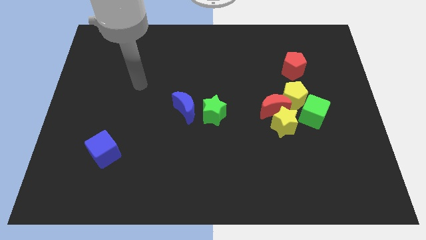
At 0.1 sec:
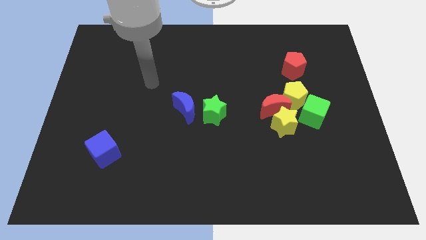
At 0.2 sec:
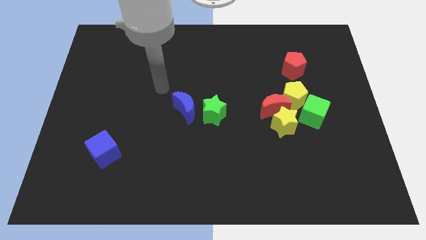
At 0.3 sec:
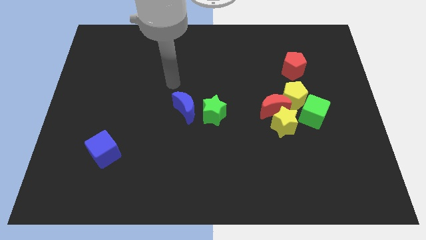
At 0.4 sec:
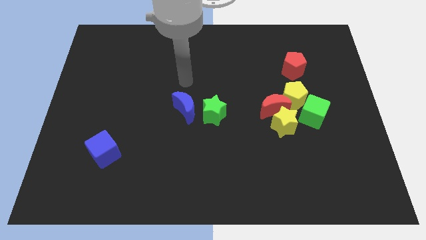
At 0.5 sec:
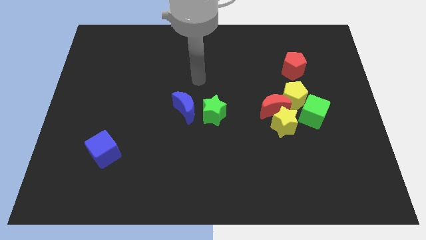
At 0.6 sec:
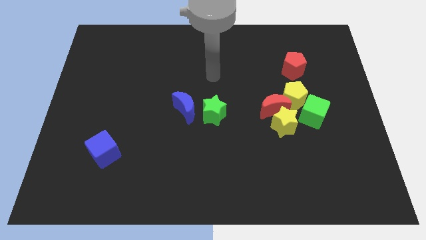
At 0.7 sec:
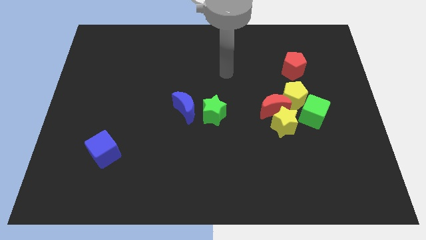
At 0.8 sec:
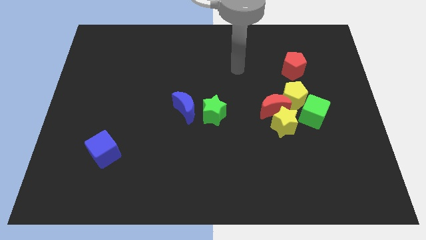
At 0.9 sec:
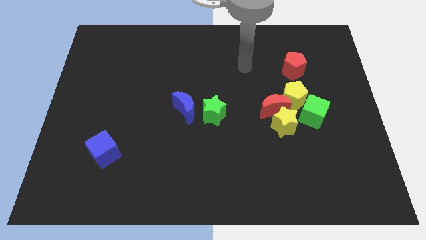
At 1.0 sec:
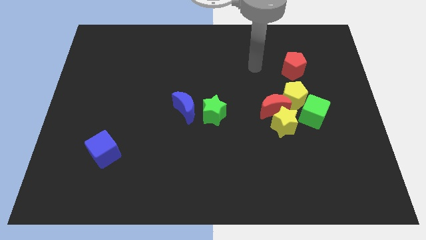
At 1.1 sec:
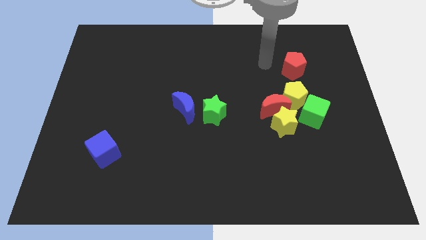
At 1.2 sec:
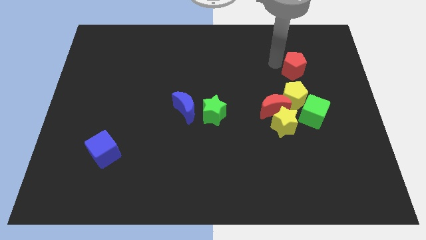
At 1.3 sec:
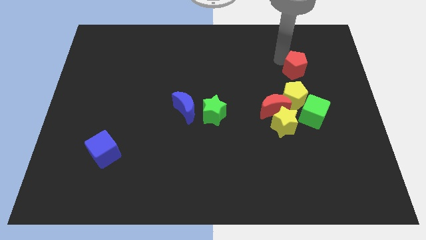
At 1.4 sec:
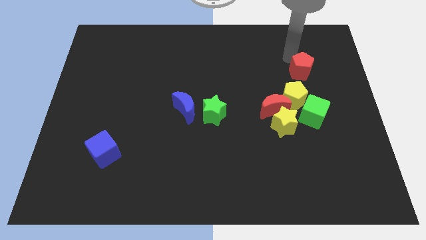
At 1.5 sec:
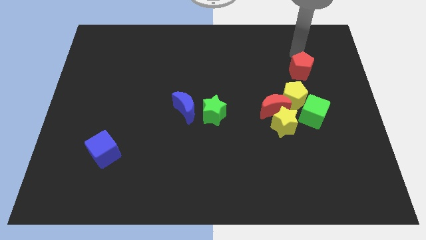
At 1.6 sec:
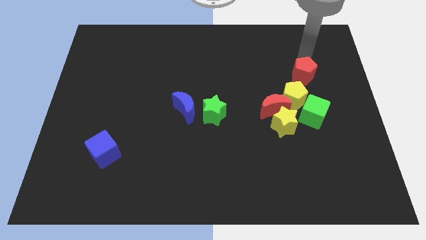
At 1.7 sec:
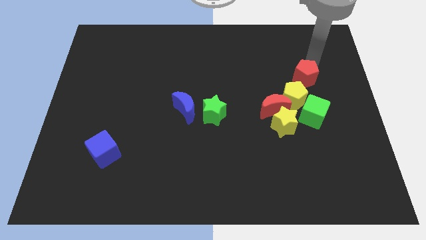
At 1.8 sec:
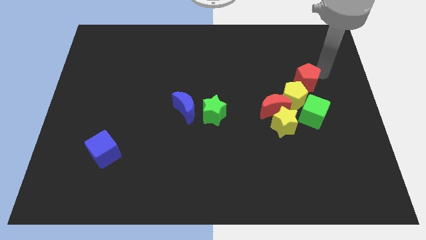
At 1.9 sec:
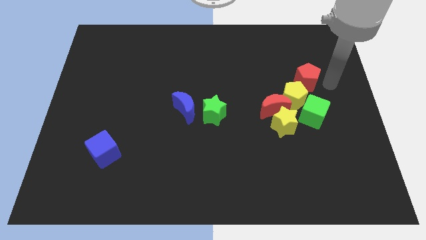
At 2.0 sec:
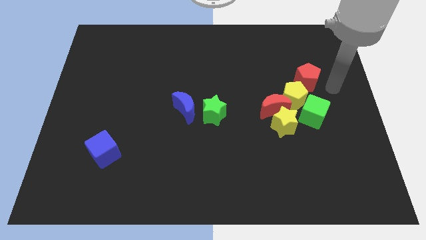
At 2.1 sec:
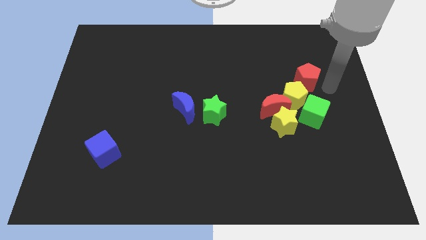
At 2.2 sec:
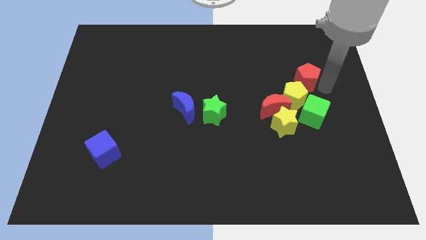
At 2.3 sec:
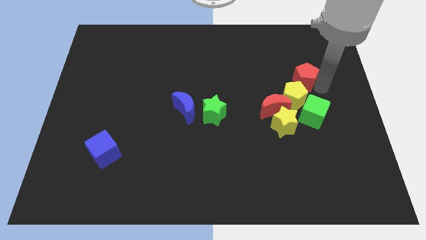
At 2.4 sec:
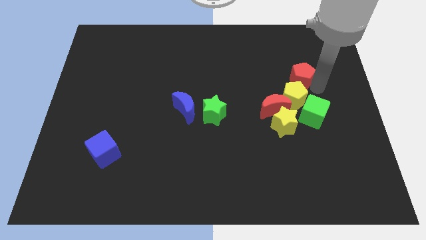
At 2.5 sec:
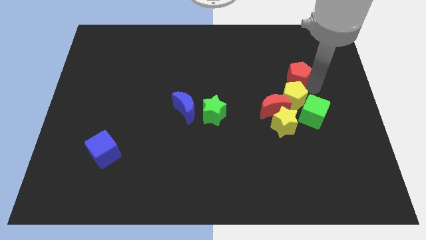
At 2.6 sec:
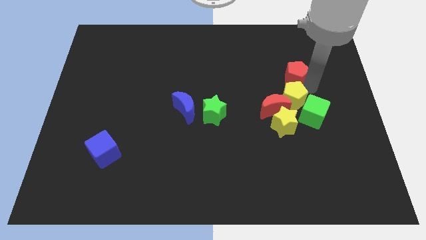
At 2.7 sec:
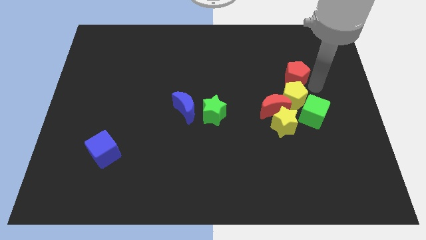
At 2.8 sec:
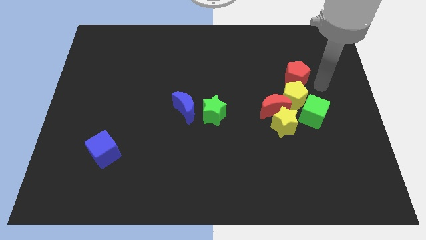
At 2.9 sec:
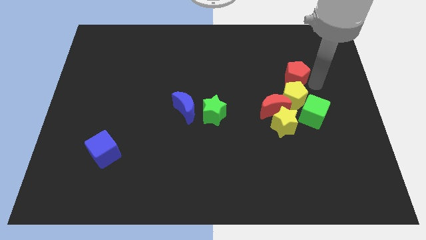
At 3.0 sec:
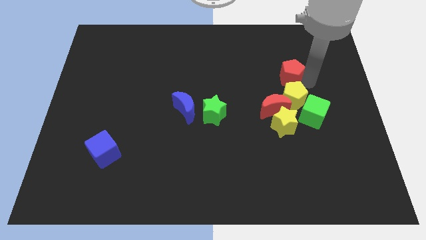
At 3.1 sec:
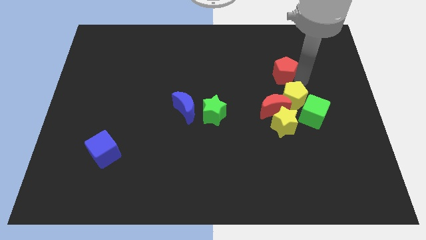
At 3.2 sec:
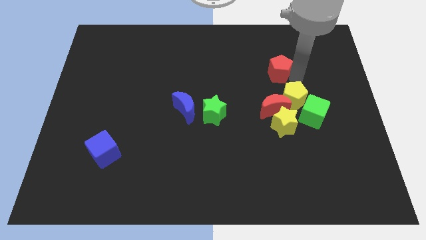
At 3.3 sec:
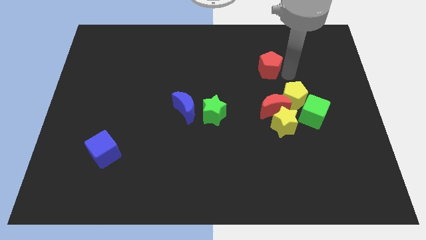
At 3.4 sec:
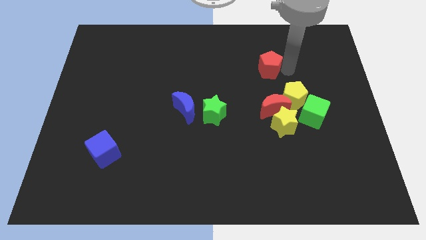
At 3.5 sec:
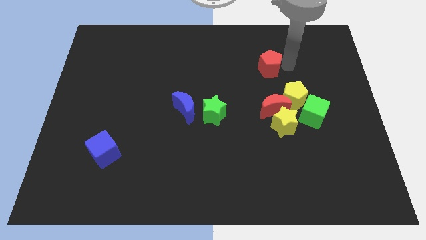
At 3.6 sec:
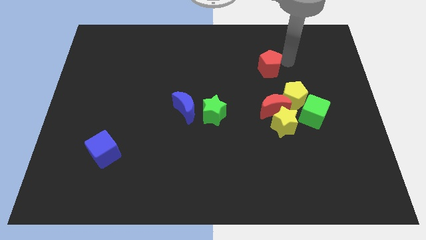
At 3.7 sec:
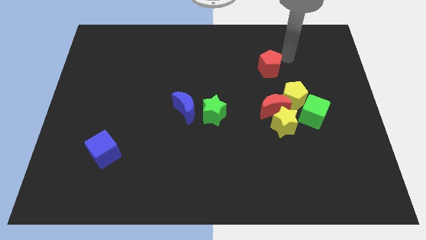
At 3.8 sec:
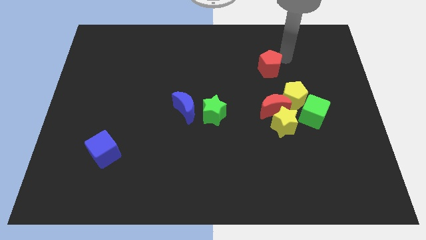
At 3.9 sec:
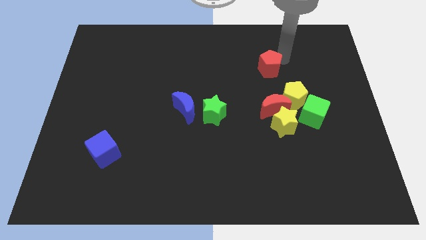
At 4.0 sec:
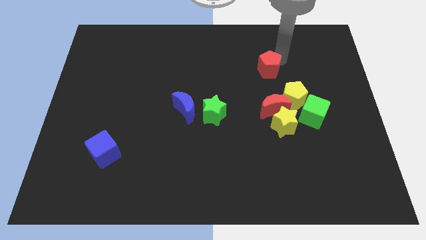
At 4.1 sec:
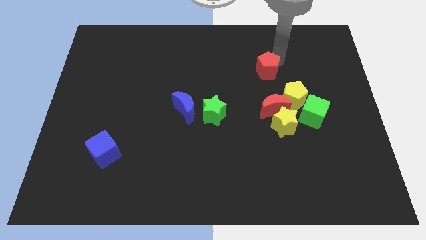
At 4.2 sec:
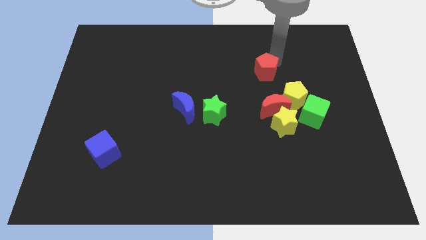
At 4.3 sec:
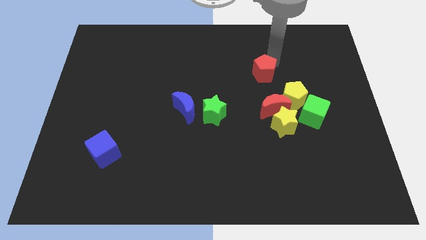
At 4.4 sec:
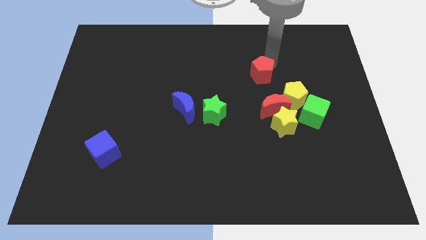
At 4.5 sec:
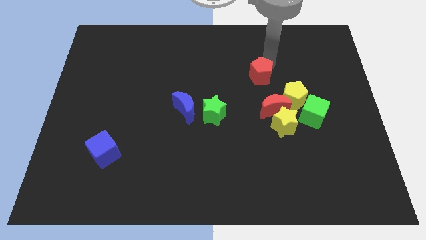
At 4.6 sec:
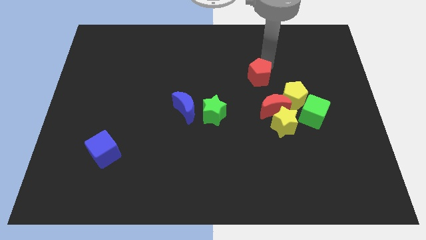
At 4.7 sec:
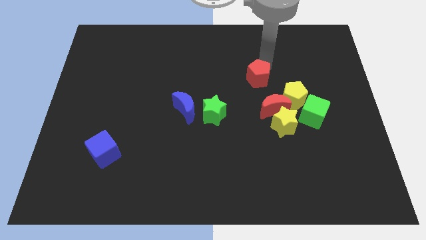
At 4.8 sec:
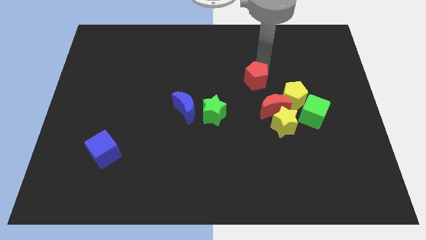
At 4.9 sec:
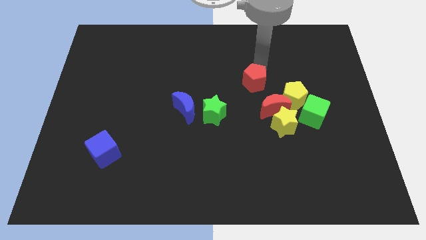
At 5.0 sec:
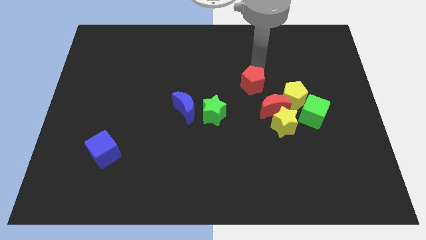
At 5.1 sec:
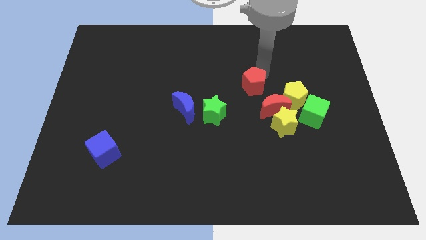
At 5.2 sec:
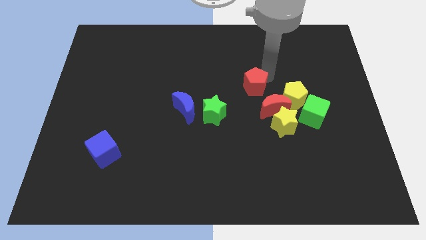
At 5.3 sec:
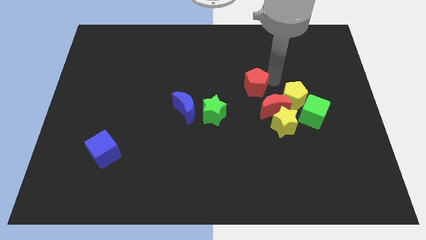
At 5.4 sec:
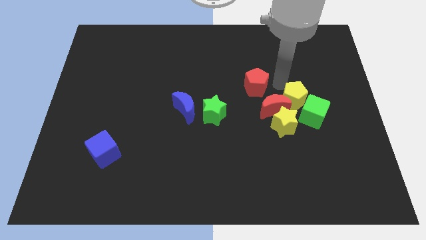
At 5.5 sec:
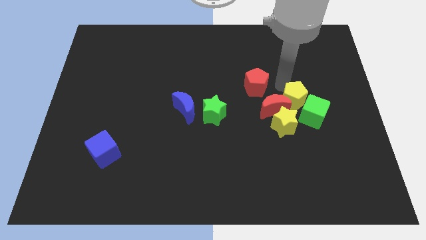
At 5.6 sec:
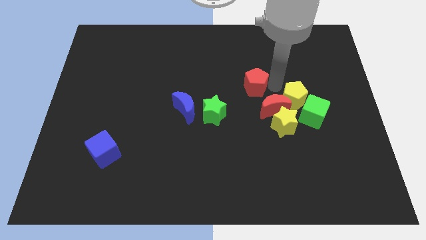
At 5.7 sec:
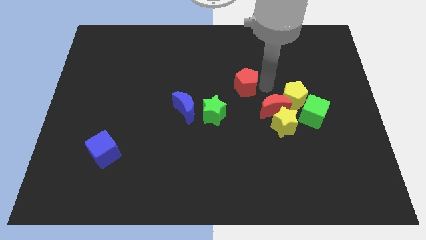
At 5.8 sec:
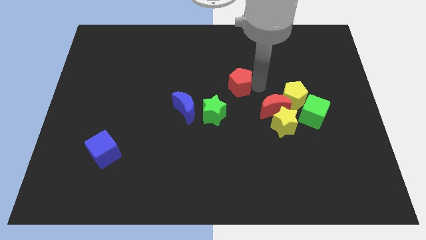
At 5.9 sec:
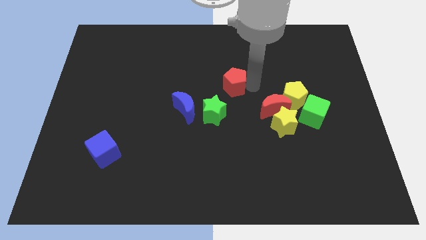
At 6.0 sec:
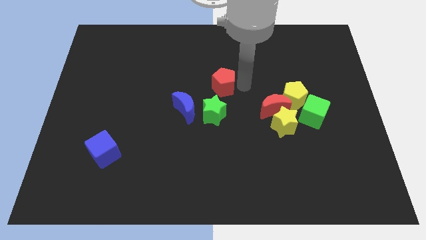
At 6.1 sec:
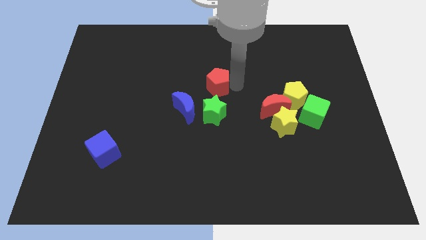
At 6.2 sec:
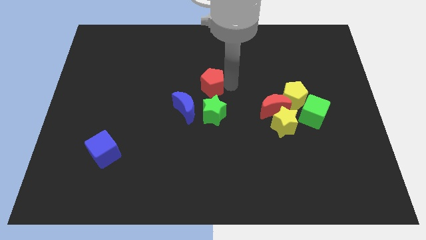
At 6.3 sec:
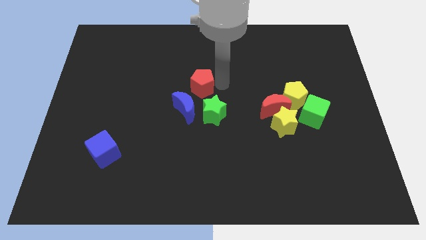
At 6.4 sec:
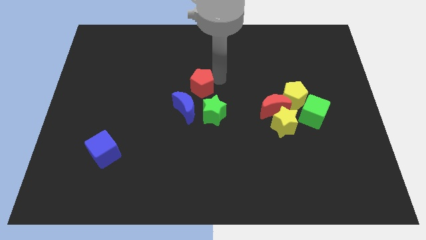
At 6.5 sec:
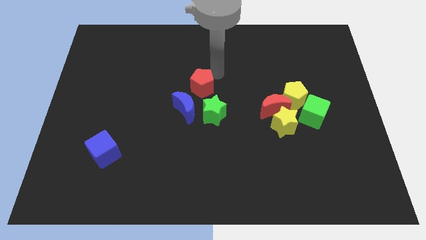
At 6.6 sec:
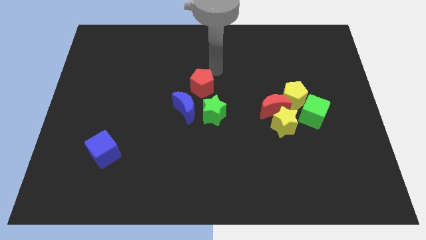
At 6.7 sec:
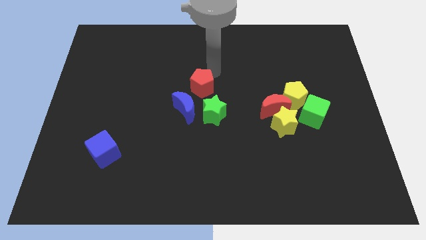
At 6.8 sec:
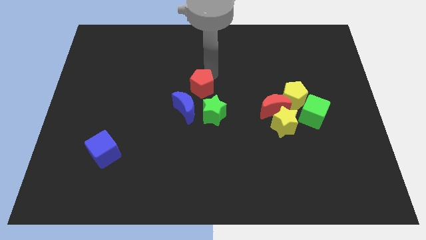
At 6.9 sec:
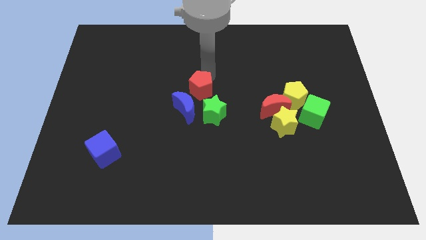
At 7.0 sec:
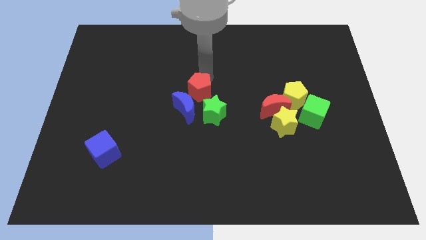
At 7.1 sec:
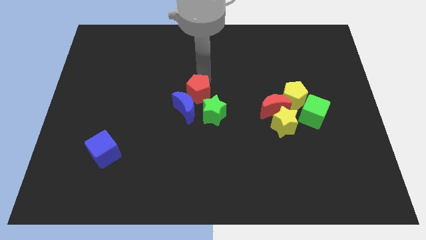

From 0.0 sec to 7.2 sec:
slide the red pentagon to the blue moon

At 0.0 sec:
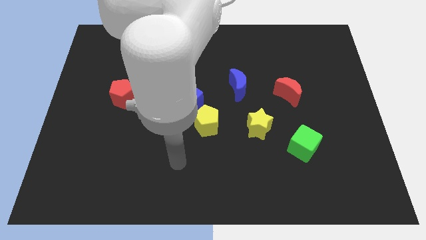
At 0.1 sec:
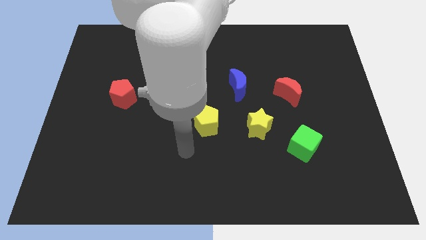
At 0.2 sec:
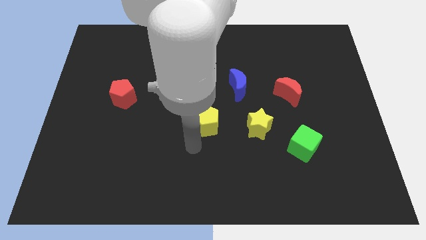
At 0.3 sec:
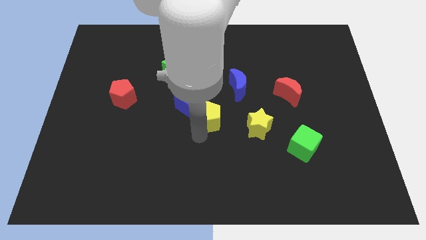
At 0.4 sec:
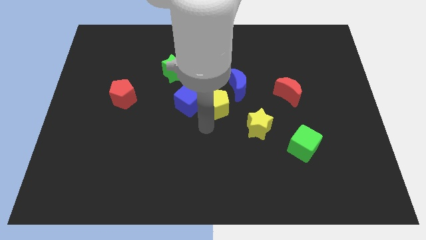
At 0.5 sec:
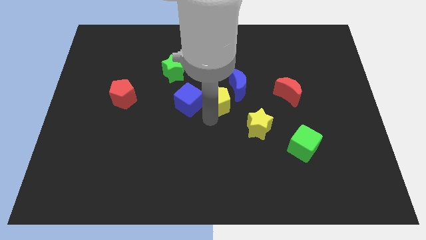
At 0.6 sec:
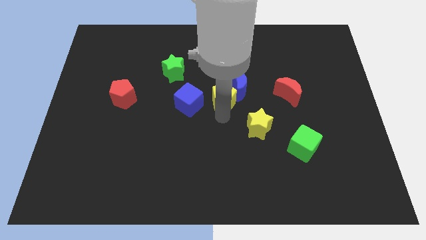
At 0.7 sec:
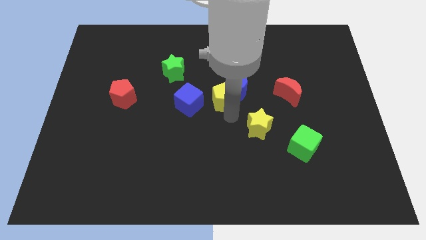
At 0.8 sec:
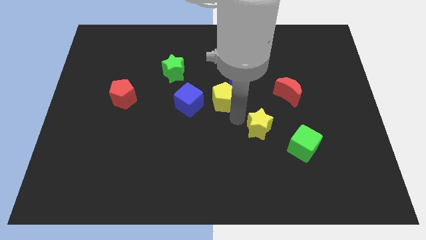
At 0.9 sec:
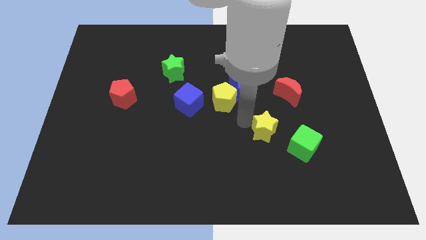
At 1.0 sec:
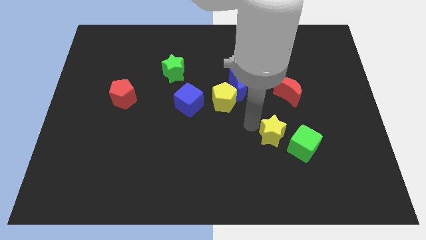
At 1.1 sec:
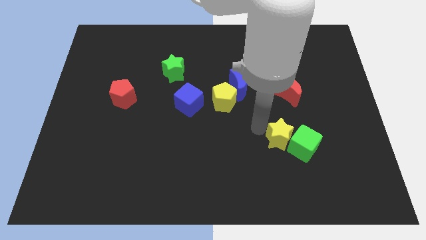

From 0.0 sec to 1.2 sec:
slide the yellow star towards the green cube
